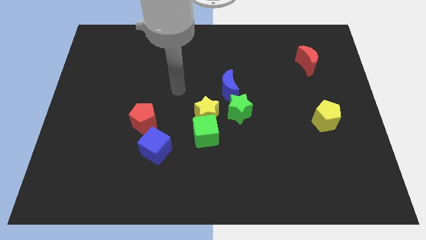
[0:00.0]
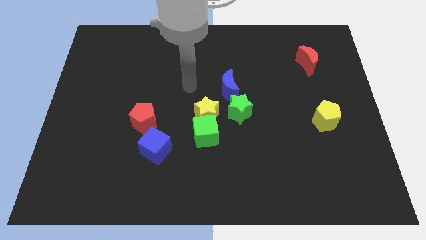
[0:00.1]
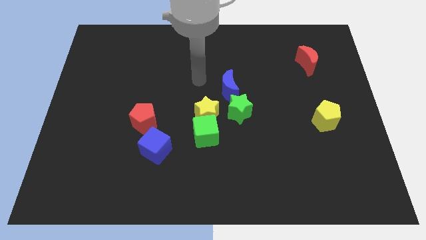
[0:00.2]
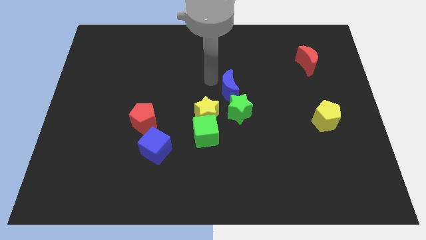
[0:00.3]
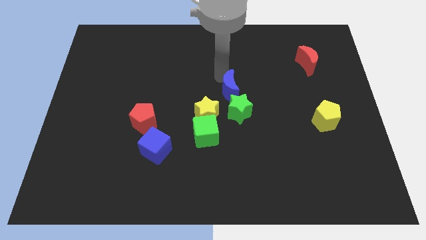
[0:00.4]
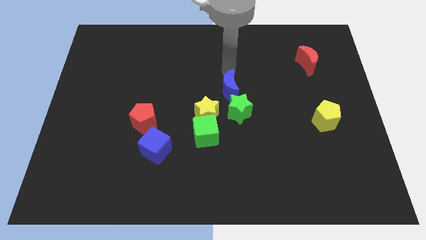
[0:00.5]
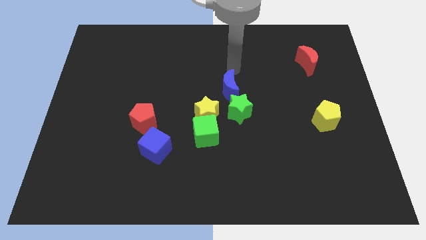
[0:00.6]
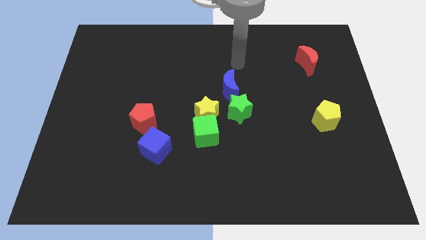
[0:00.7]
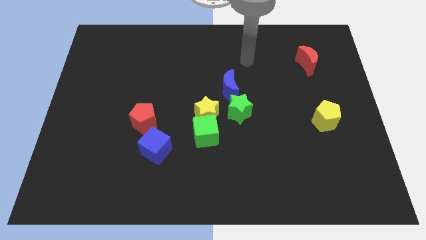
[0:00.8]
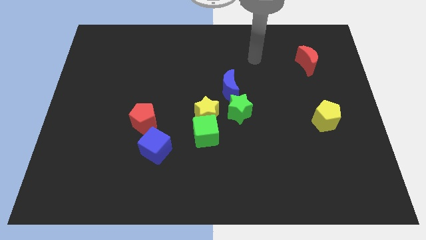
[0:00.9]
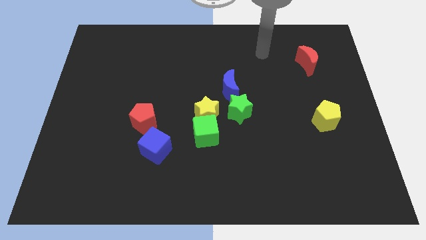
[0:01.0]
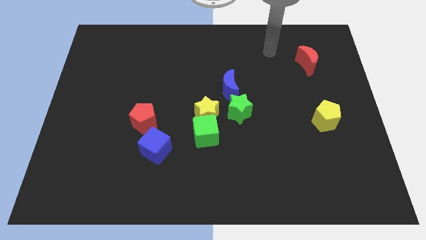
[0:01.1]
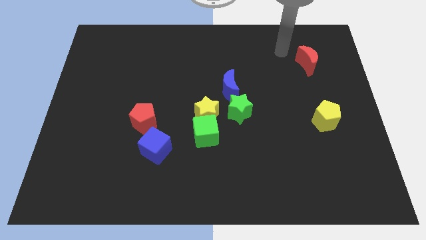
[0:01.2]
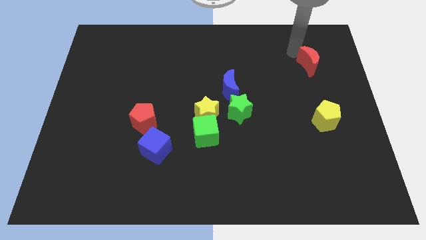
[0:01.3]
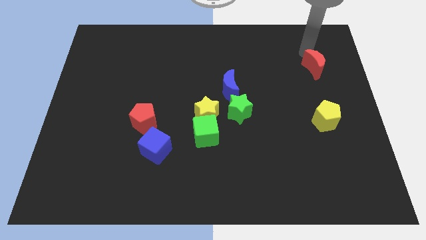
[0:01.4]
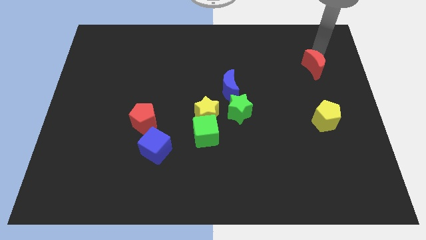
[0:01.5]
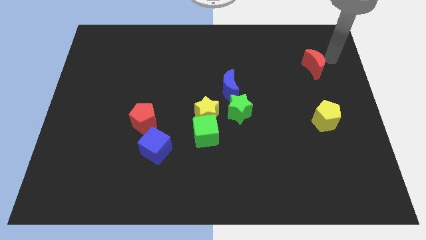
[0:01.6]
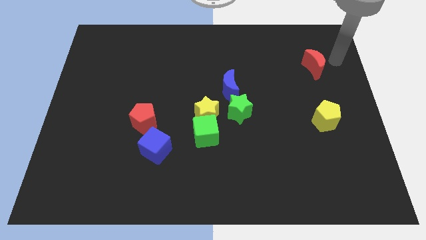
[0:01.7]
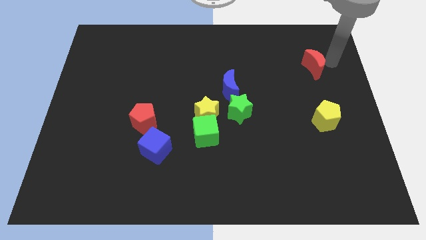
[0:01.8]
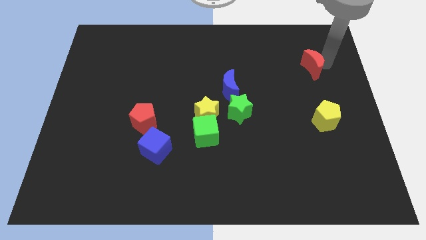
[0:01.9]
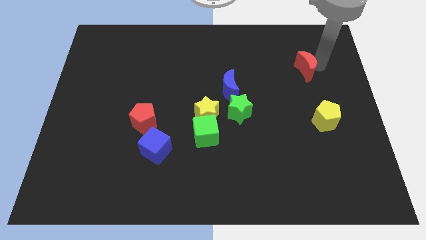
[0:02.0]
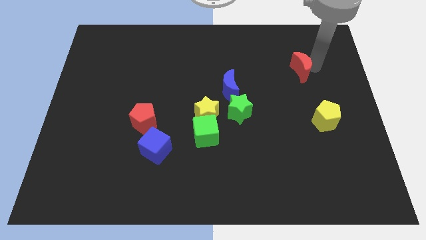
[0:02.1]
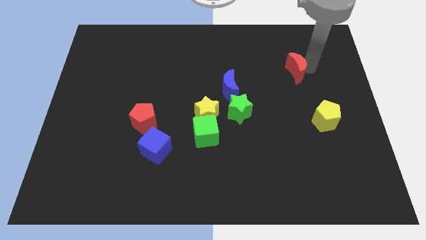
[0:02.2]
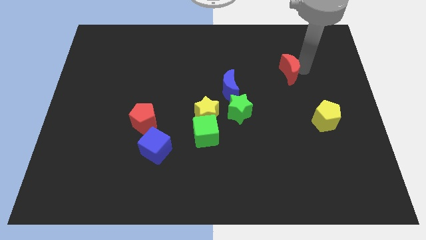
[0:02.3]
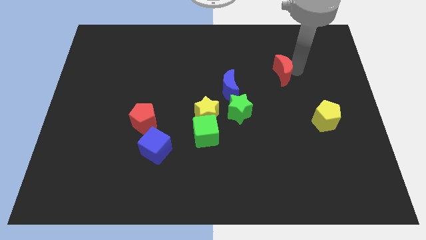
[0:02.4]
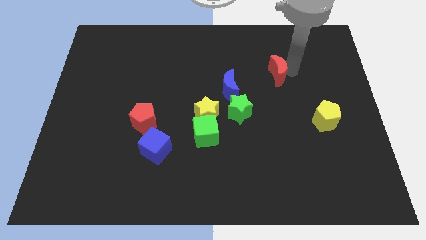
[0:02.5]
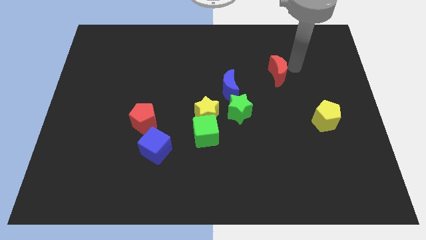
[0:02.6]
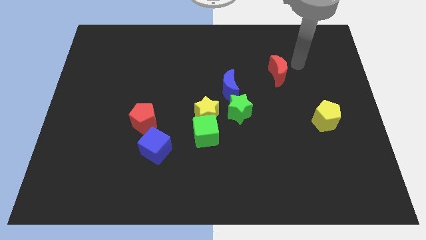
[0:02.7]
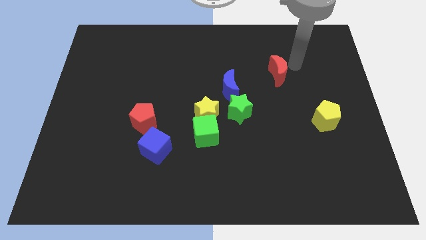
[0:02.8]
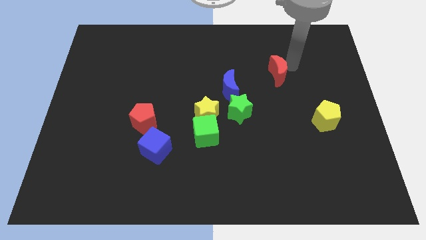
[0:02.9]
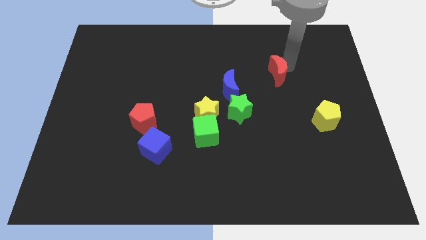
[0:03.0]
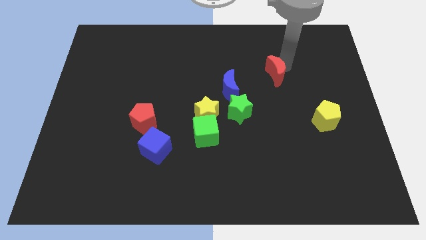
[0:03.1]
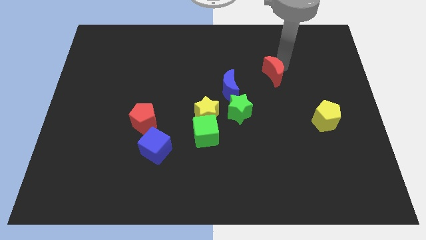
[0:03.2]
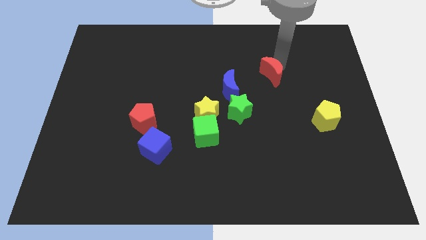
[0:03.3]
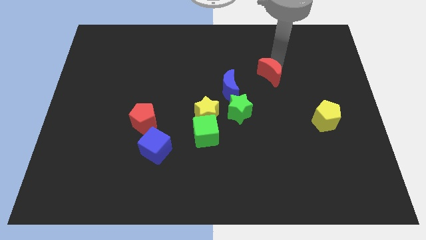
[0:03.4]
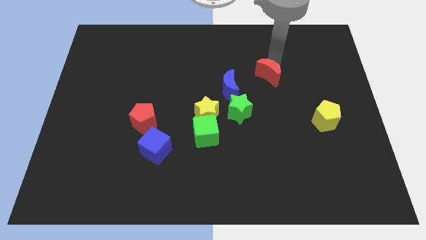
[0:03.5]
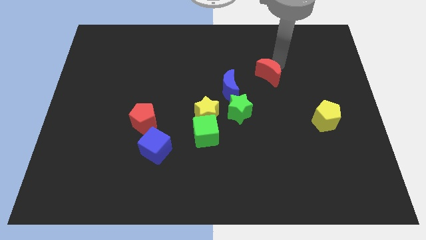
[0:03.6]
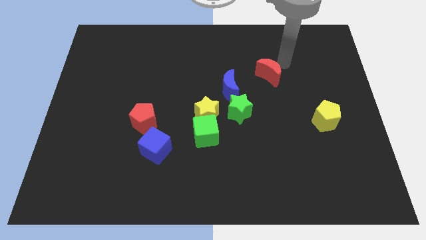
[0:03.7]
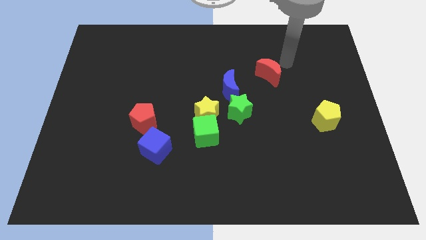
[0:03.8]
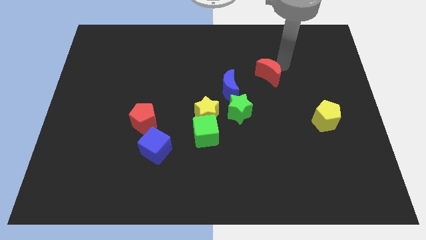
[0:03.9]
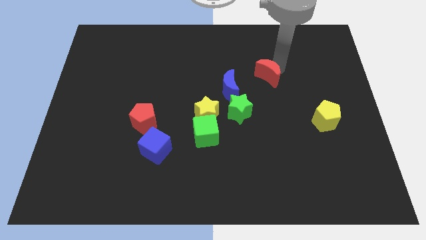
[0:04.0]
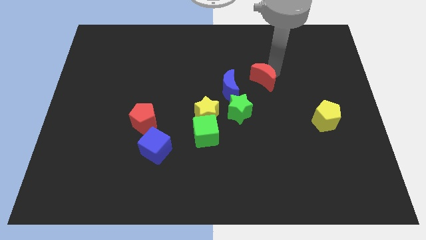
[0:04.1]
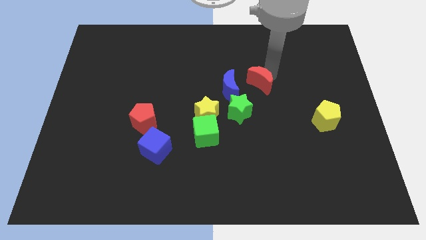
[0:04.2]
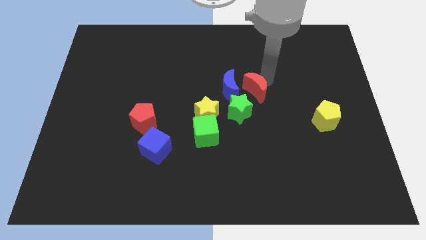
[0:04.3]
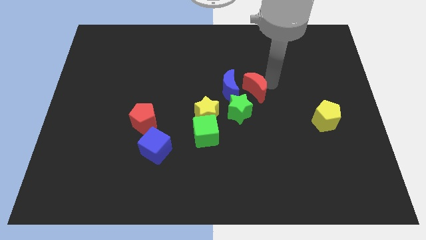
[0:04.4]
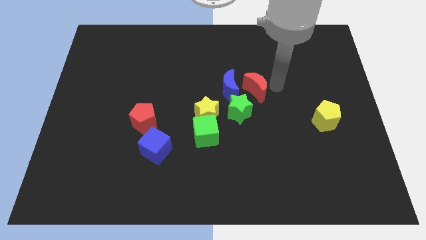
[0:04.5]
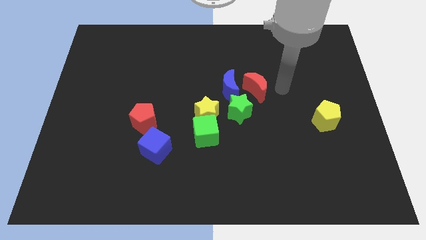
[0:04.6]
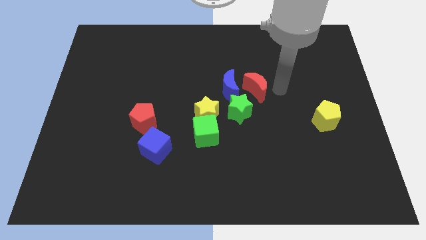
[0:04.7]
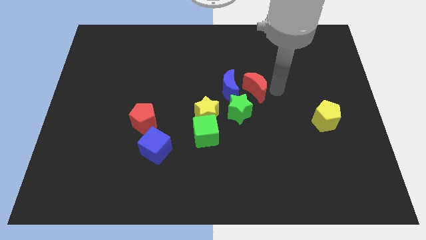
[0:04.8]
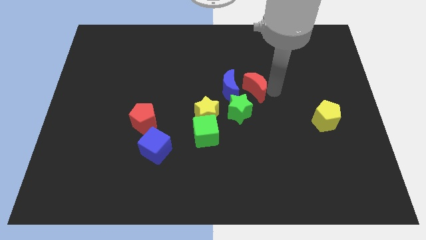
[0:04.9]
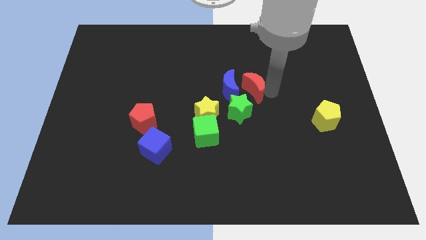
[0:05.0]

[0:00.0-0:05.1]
move the red moon close to the blue moon

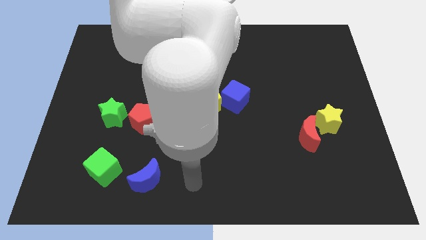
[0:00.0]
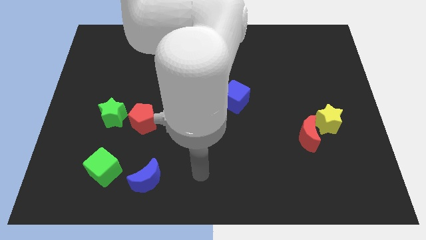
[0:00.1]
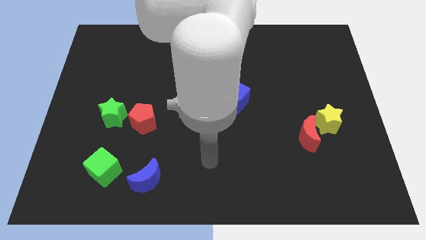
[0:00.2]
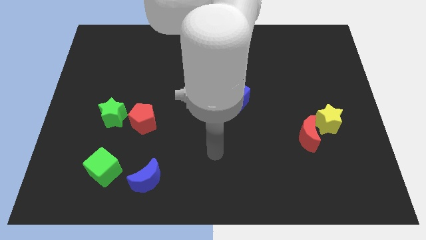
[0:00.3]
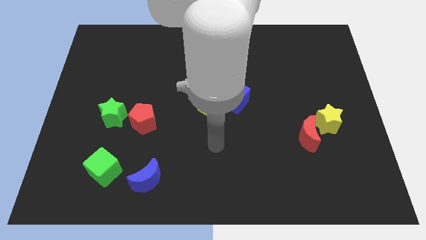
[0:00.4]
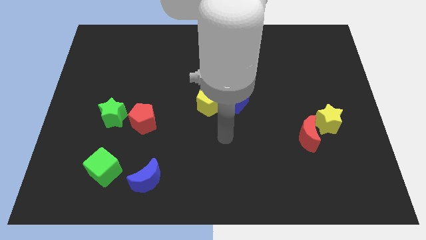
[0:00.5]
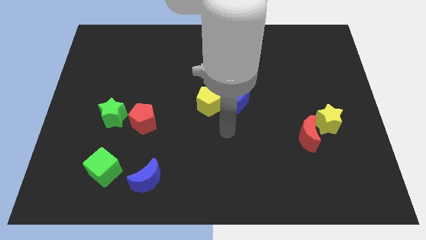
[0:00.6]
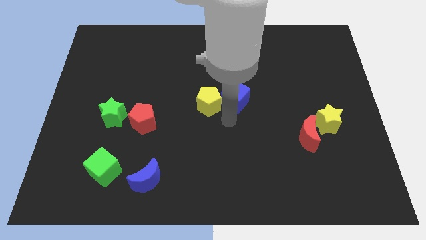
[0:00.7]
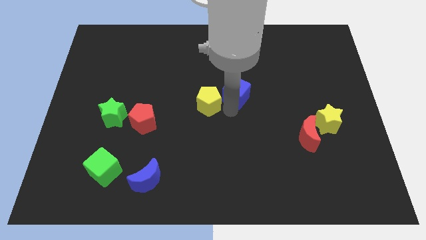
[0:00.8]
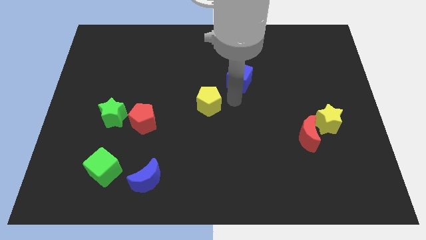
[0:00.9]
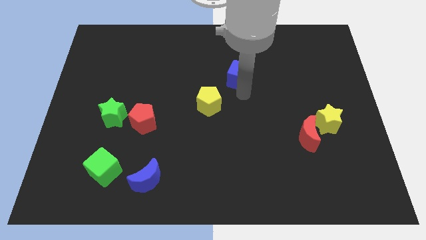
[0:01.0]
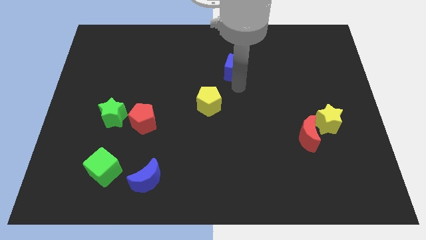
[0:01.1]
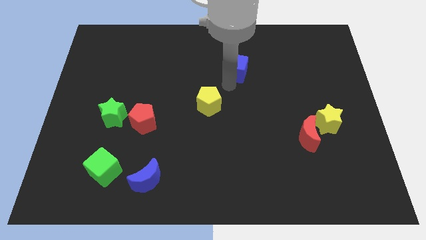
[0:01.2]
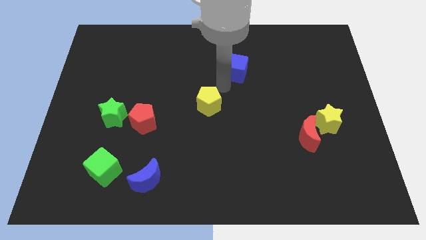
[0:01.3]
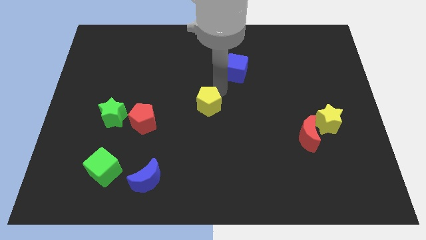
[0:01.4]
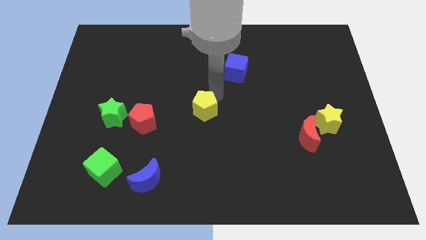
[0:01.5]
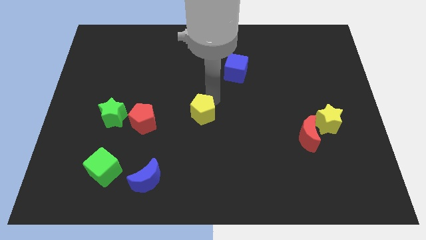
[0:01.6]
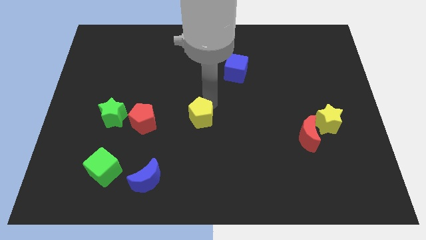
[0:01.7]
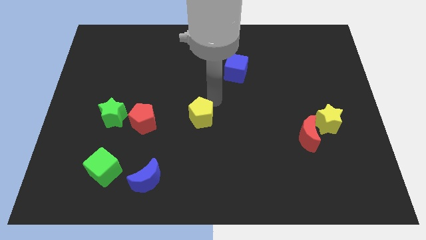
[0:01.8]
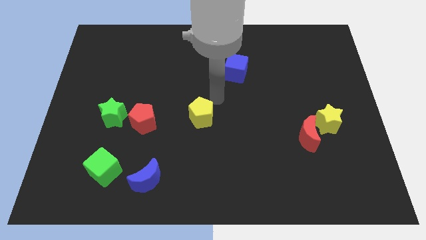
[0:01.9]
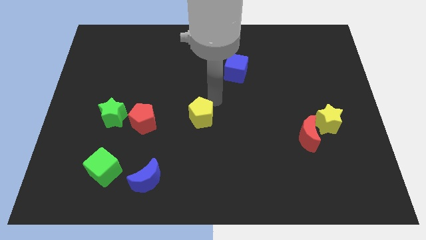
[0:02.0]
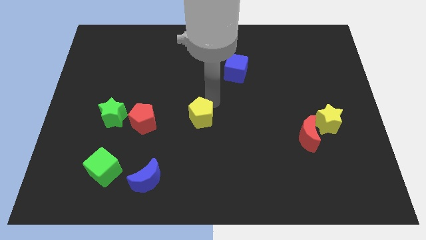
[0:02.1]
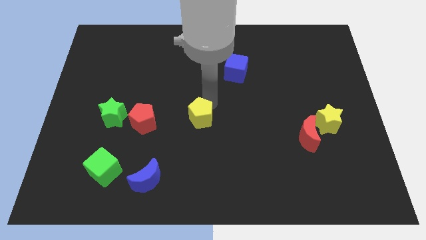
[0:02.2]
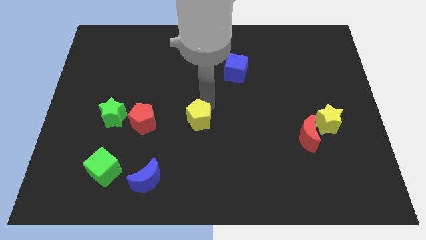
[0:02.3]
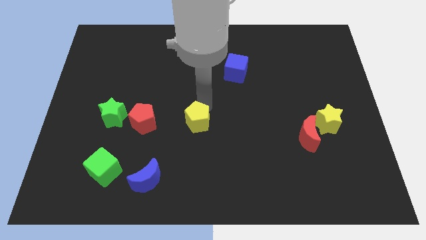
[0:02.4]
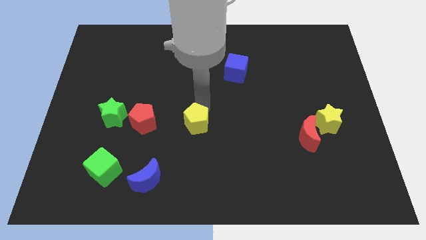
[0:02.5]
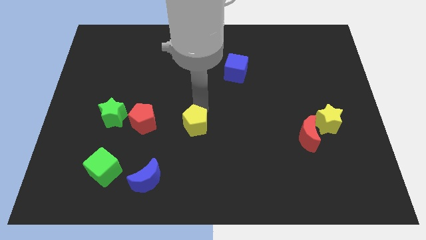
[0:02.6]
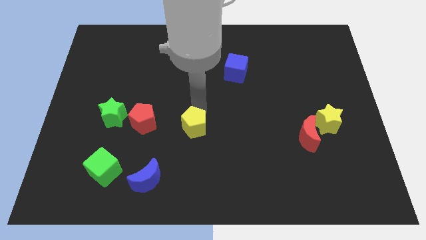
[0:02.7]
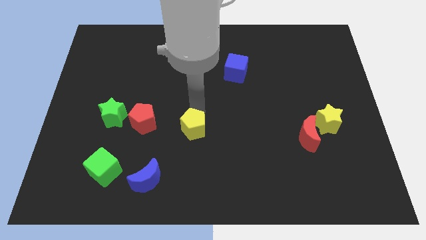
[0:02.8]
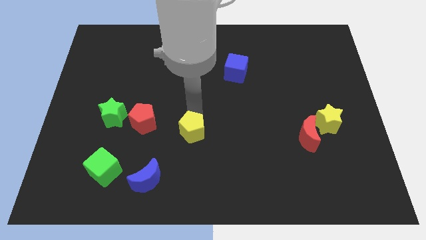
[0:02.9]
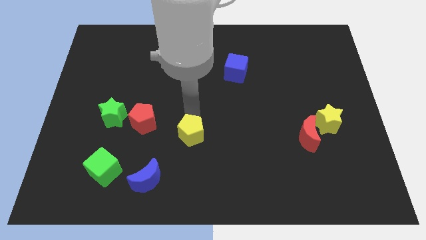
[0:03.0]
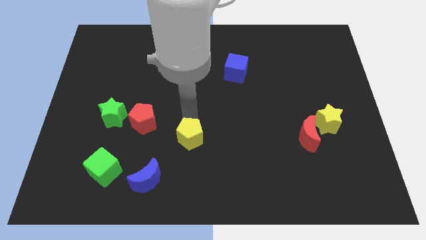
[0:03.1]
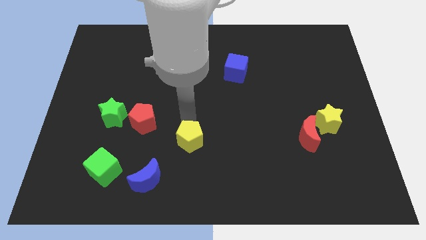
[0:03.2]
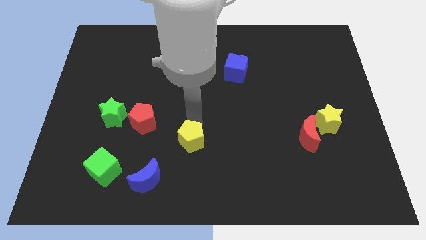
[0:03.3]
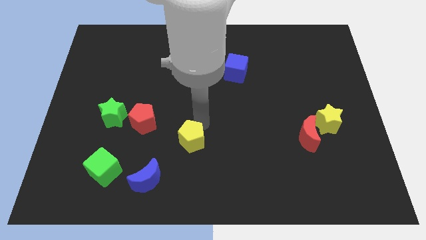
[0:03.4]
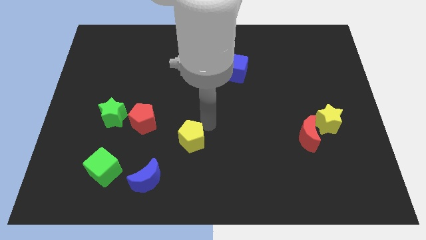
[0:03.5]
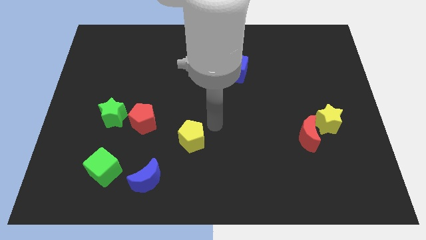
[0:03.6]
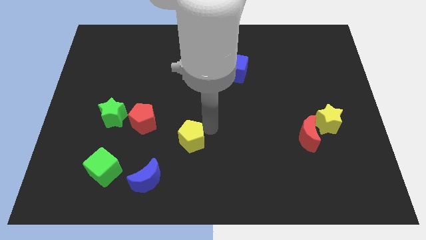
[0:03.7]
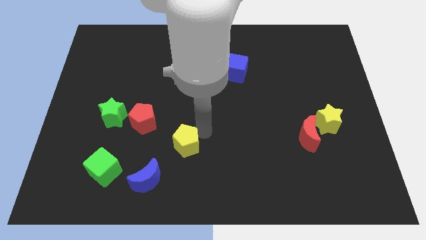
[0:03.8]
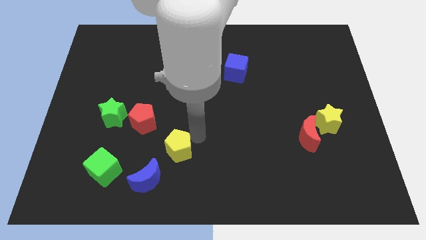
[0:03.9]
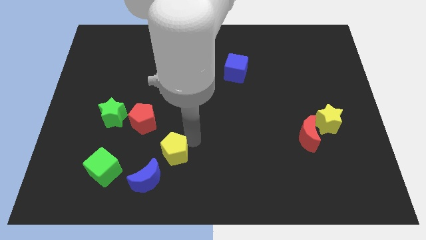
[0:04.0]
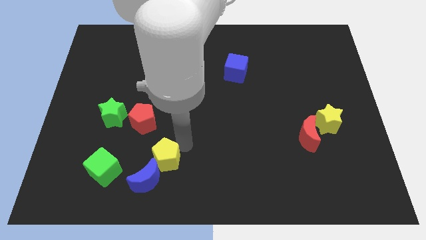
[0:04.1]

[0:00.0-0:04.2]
push the yellow pentagon next to the blue moon
